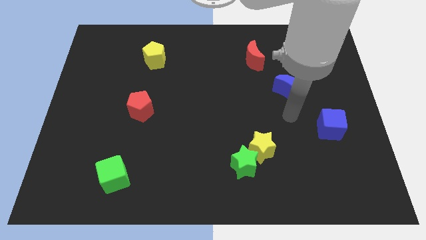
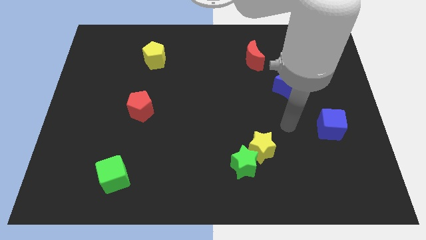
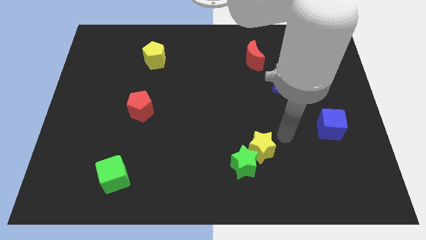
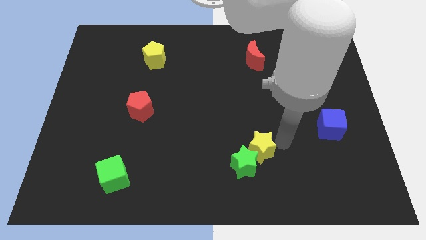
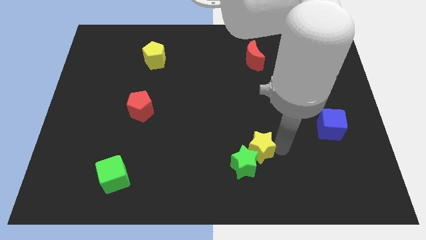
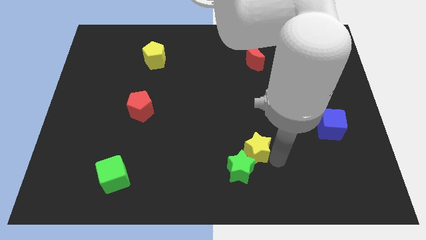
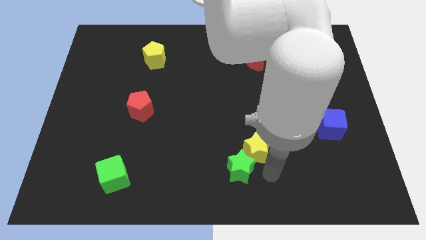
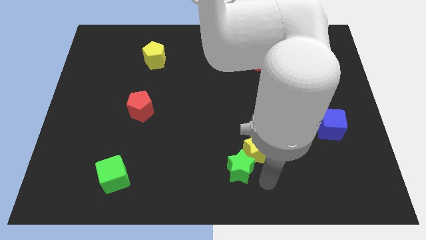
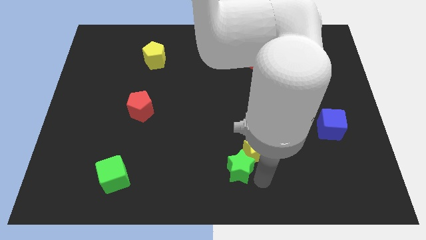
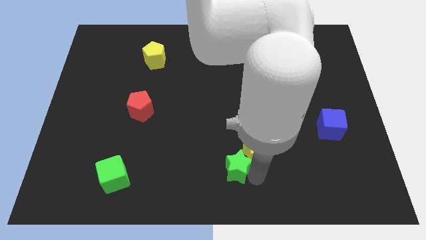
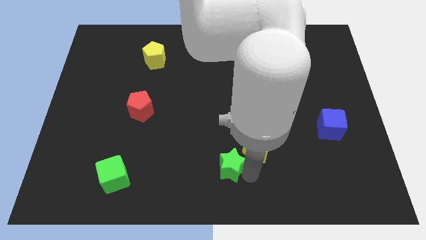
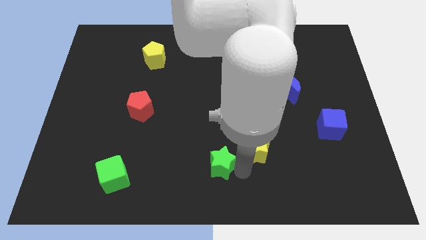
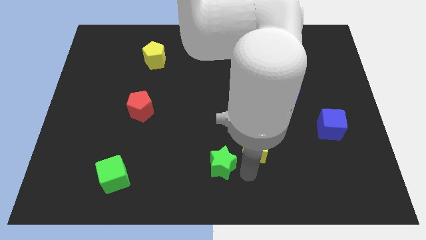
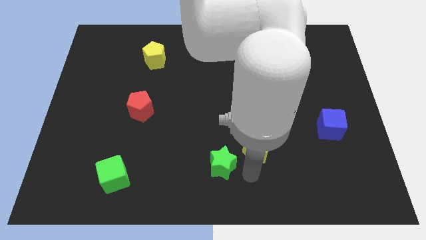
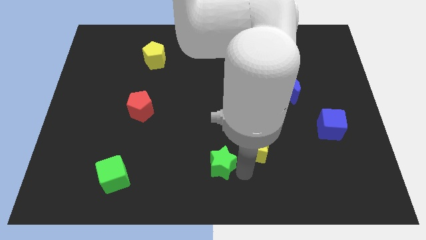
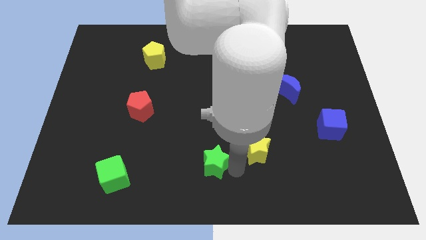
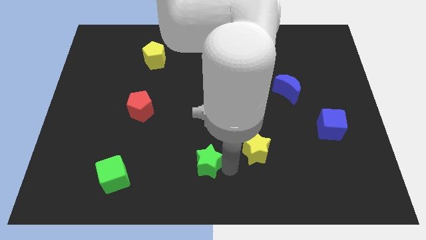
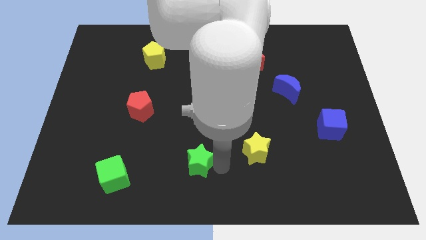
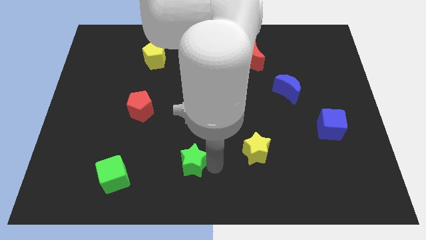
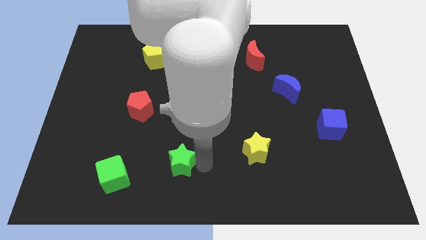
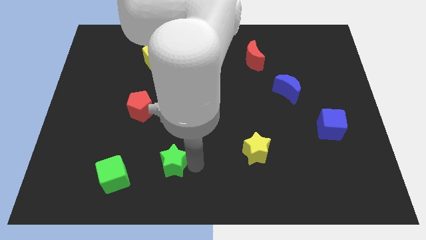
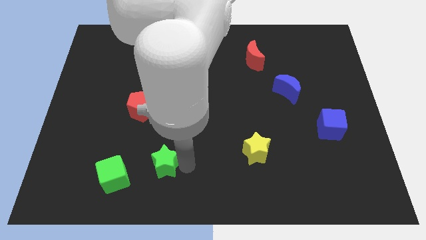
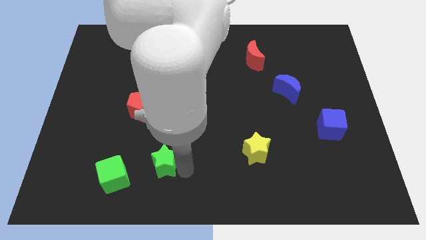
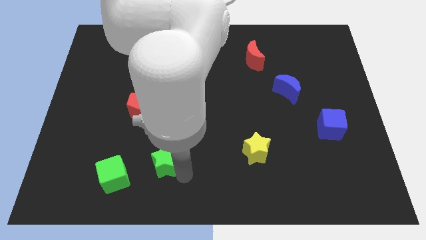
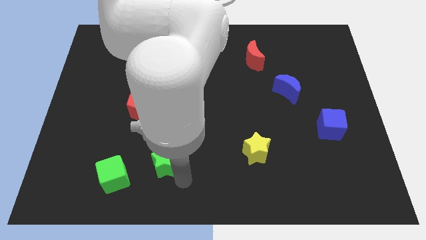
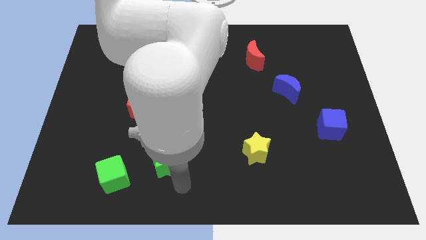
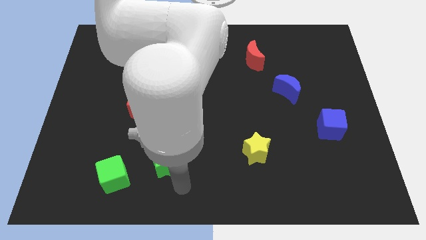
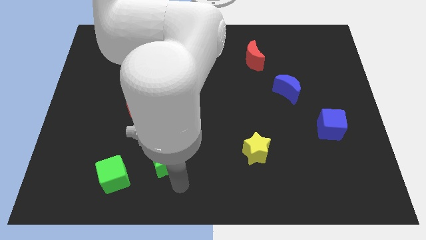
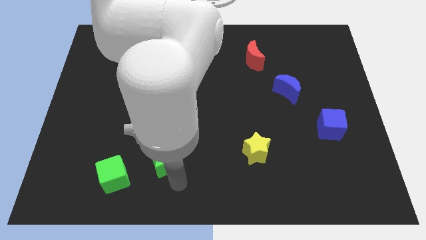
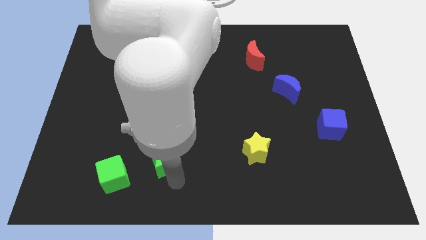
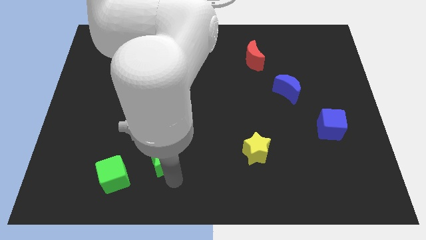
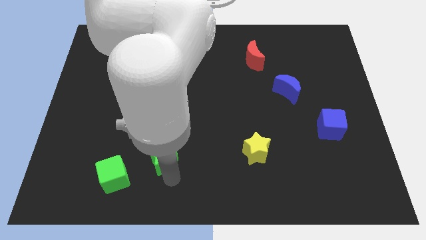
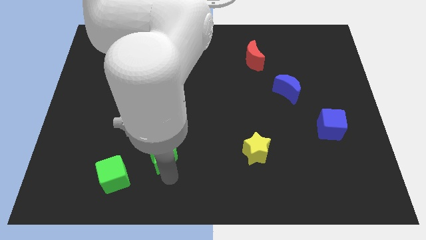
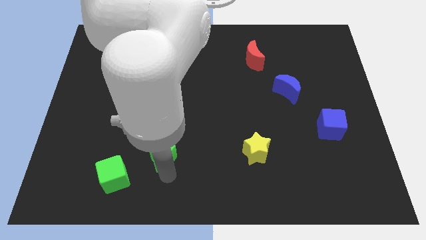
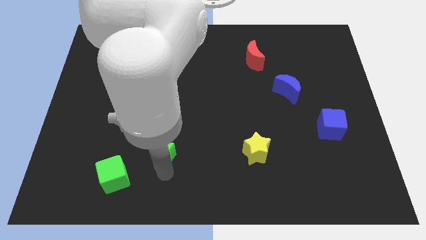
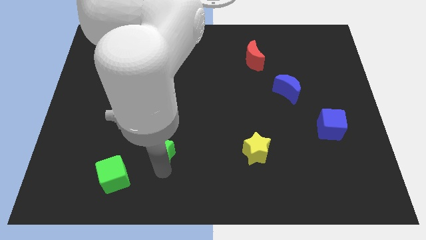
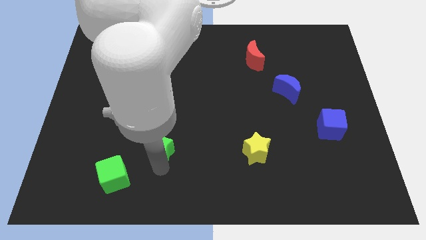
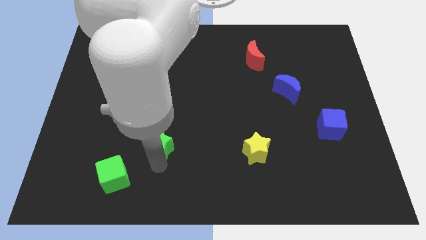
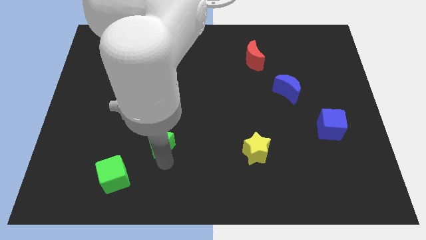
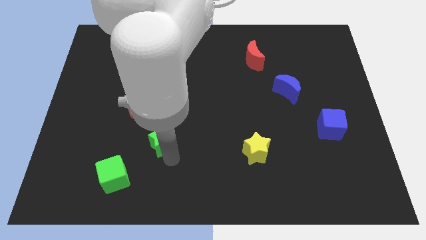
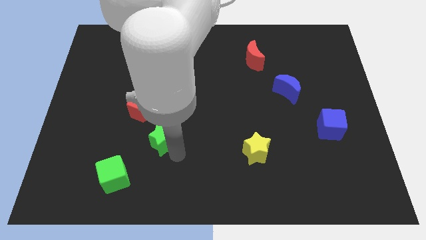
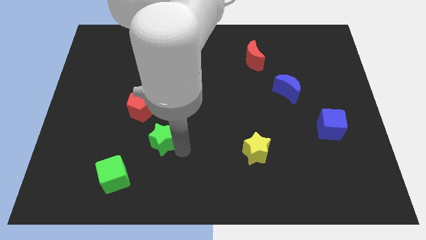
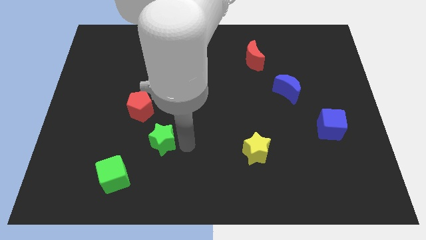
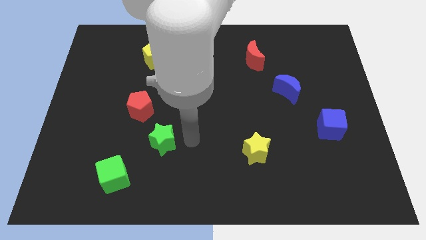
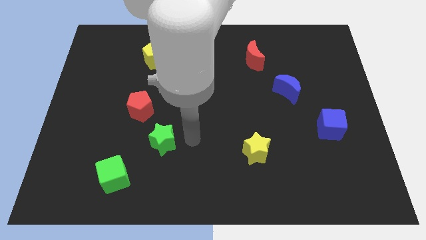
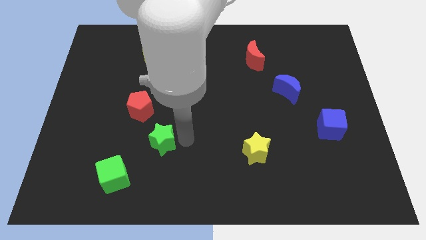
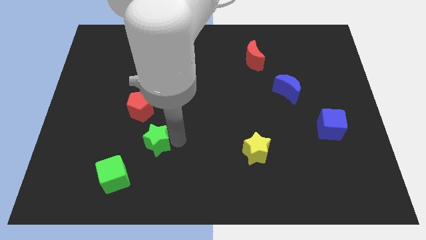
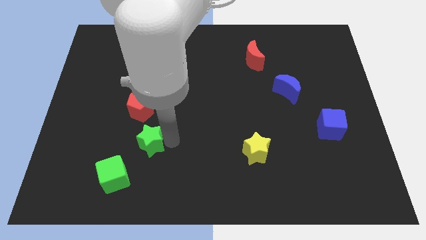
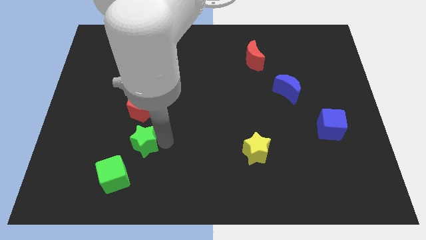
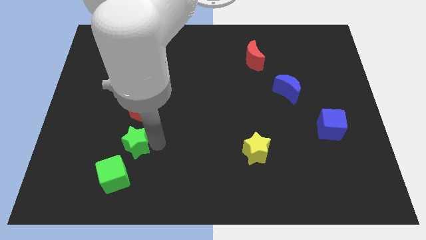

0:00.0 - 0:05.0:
move the green star to the top of the green cube

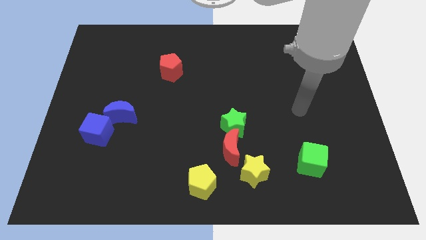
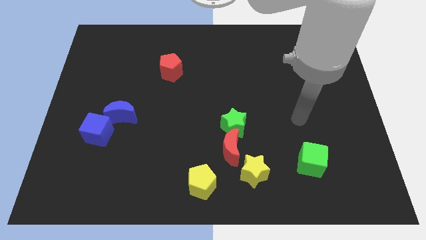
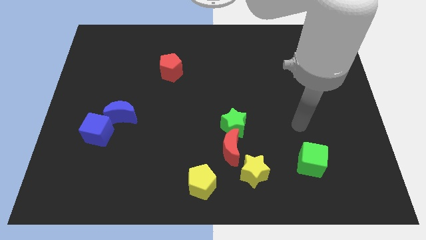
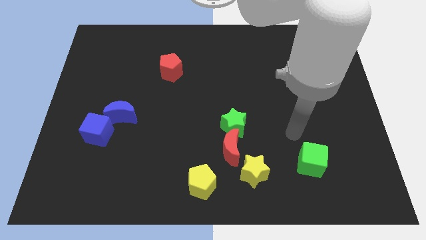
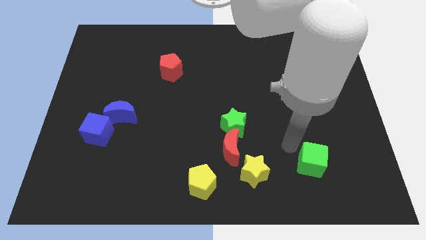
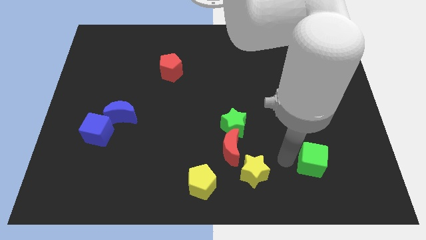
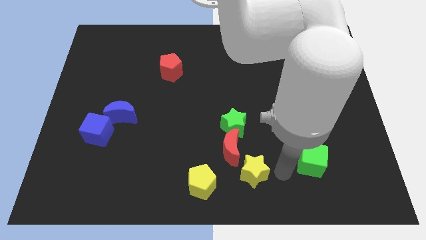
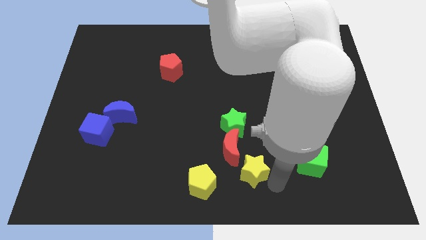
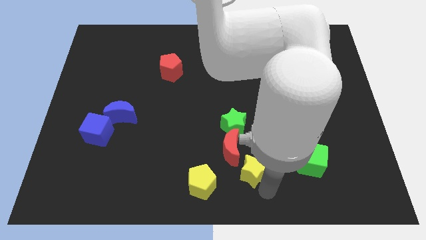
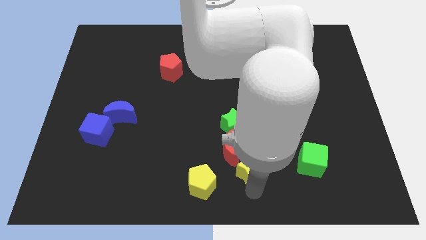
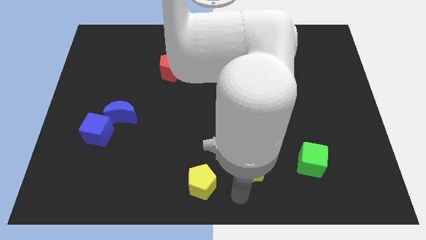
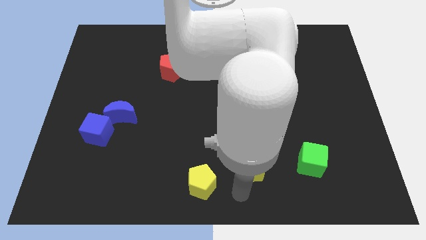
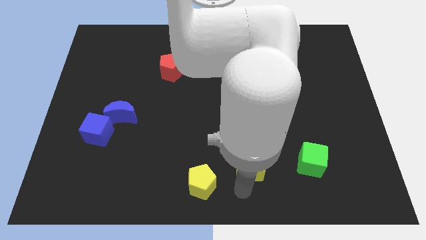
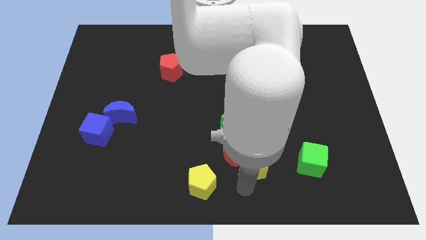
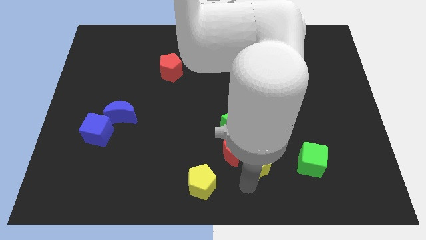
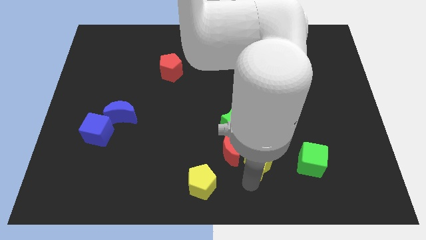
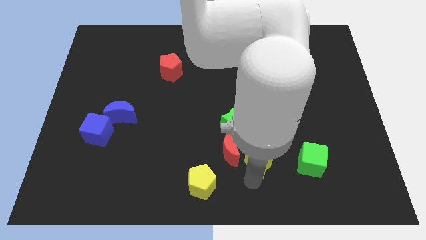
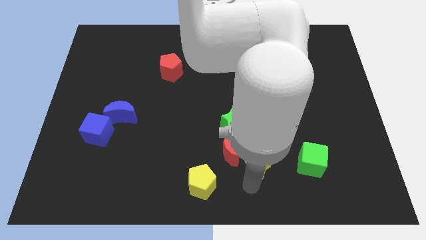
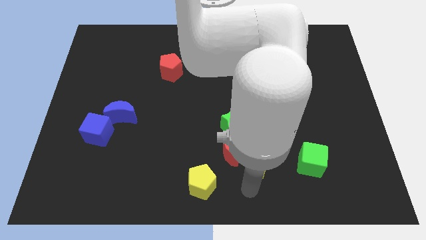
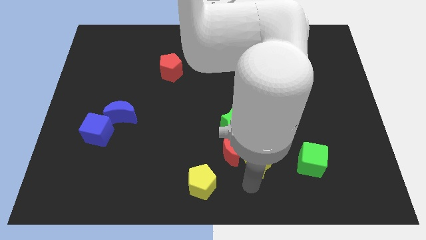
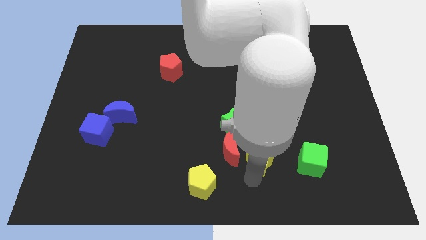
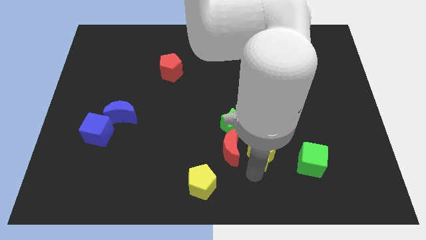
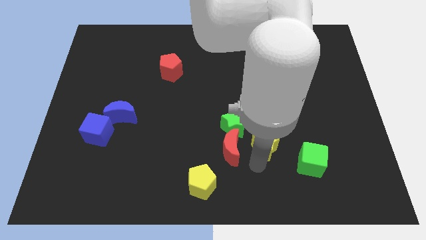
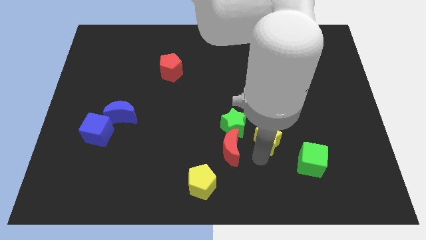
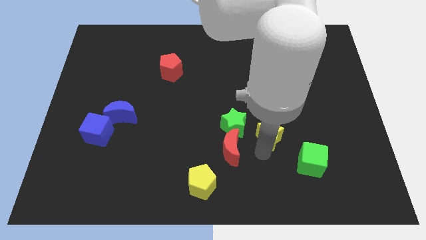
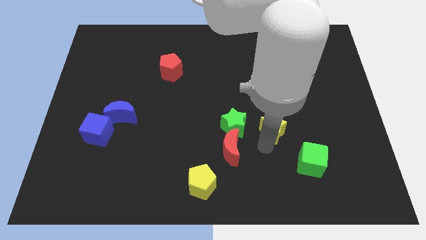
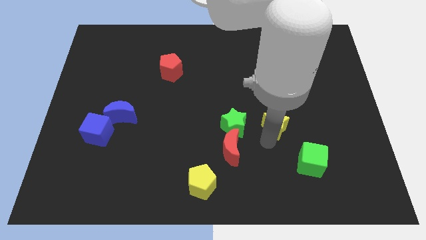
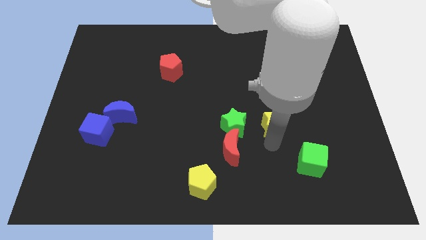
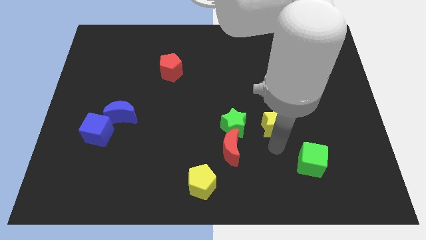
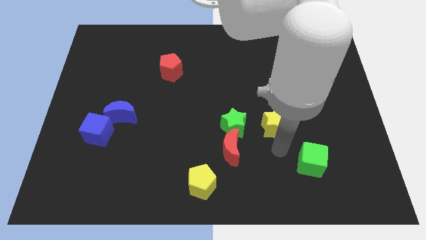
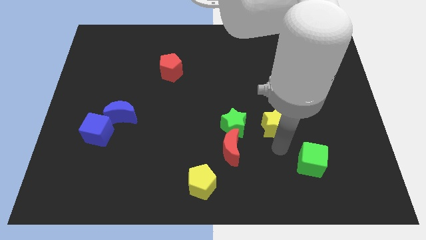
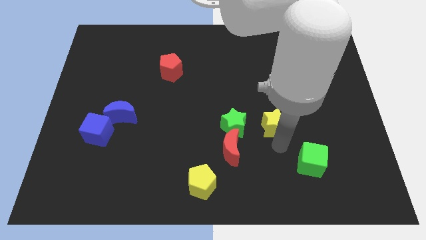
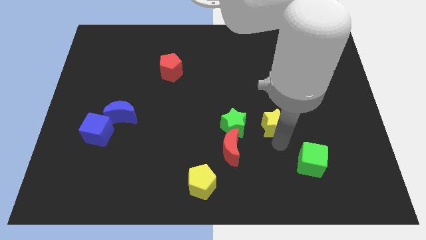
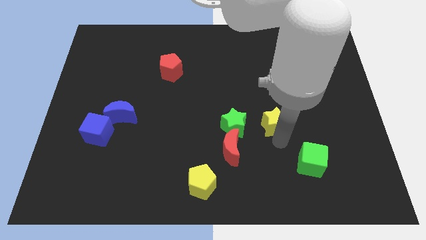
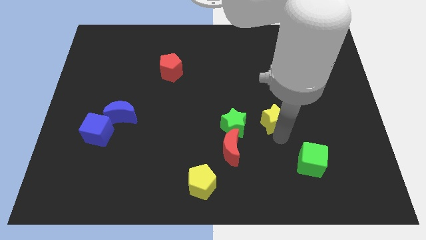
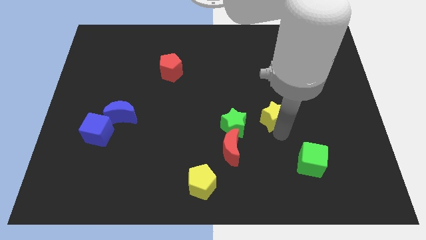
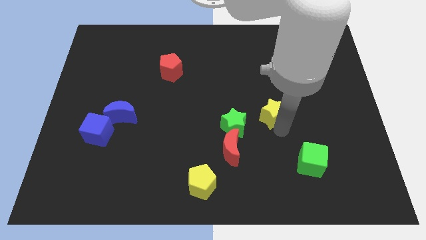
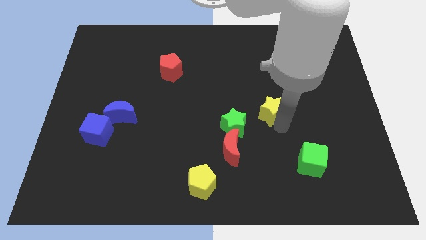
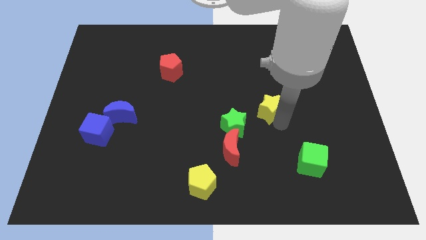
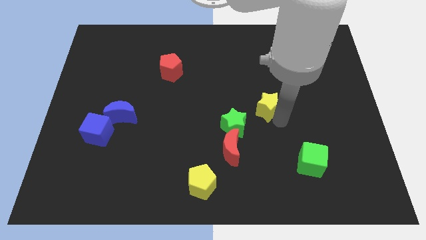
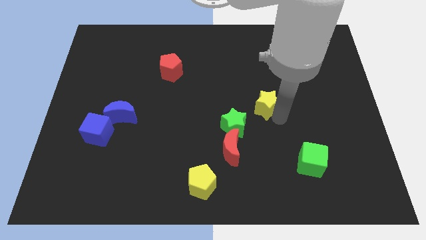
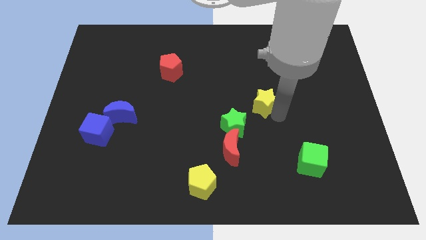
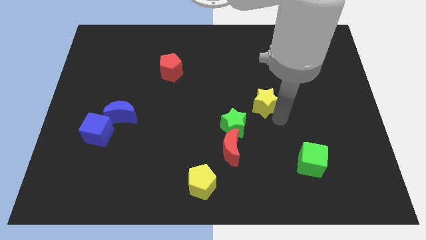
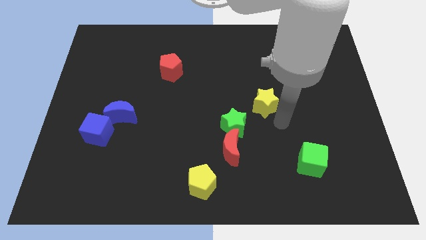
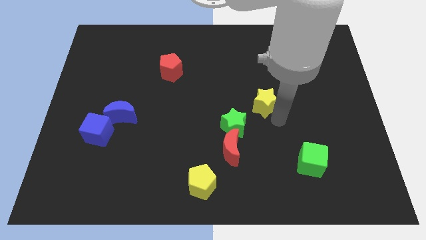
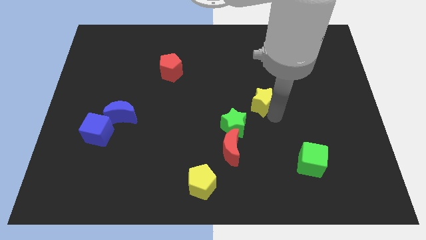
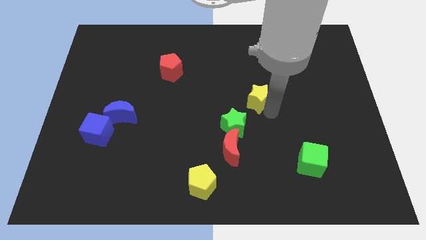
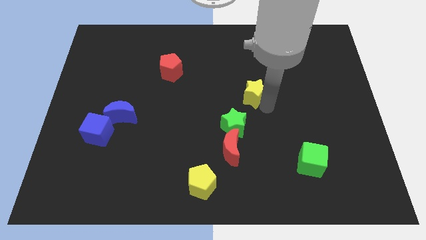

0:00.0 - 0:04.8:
move the yellow star above the green star
